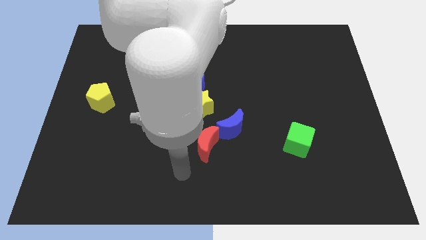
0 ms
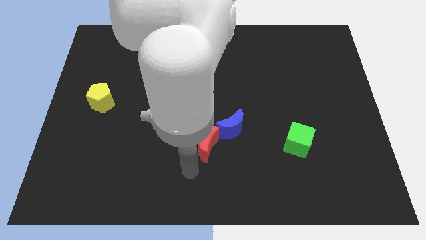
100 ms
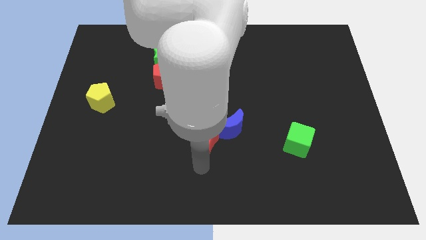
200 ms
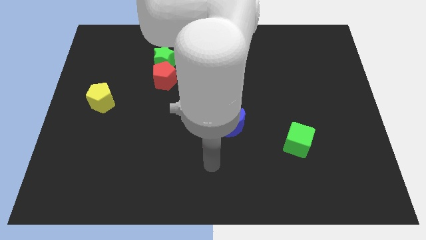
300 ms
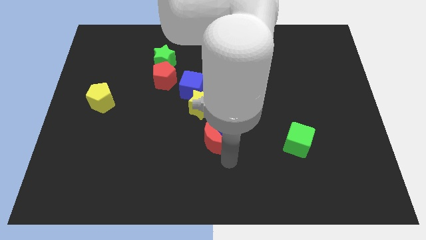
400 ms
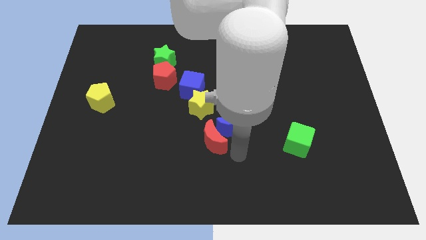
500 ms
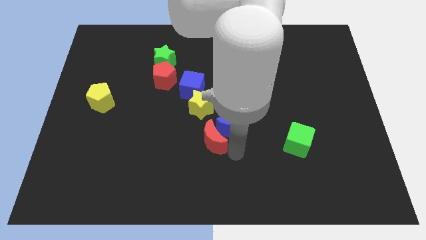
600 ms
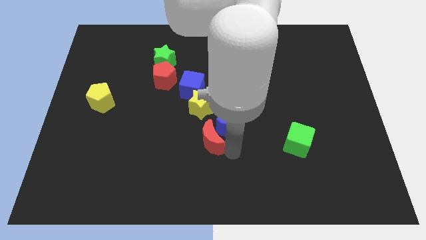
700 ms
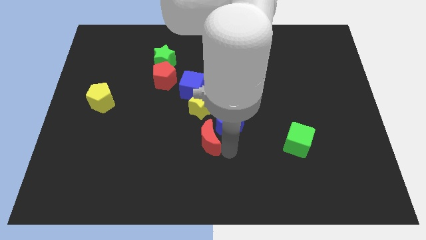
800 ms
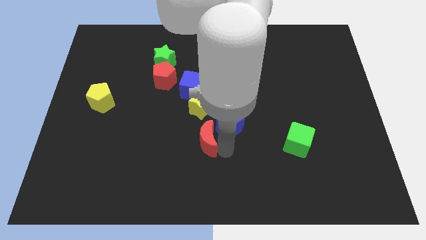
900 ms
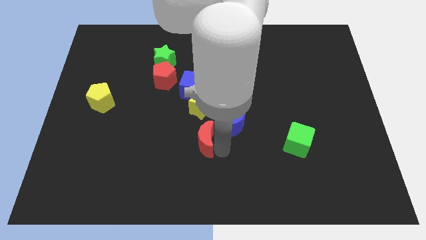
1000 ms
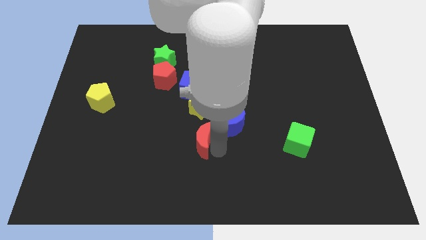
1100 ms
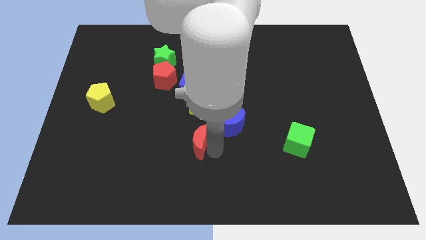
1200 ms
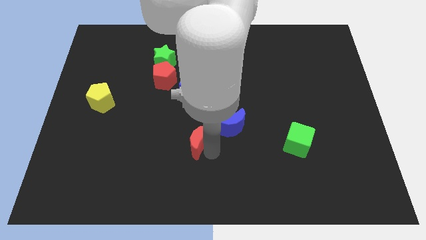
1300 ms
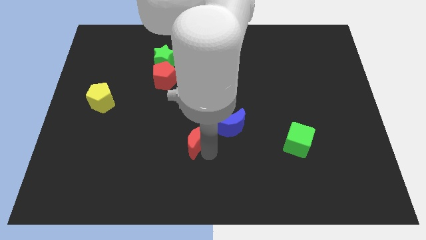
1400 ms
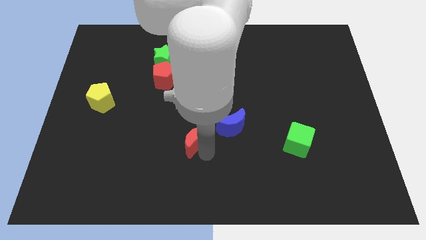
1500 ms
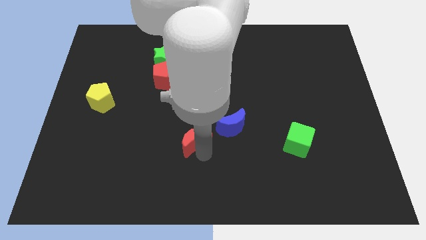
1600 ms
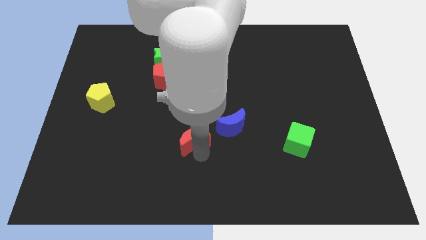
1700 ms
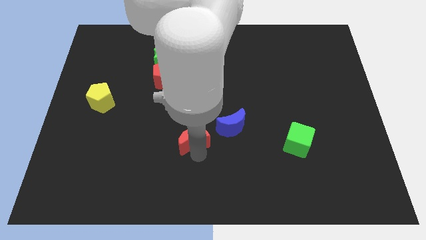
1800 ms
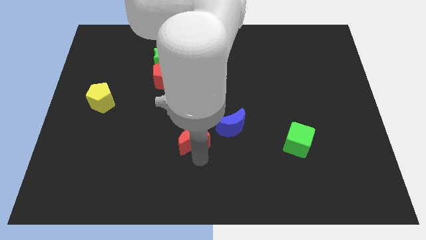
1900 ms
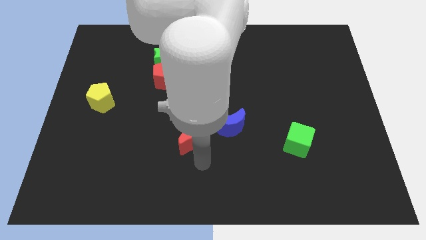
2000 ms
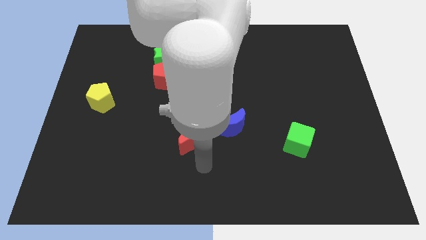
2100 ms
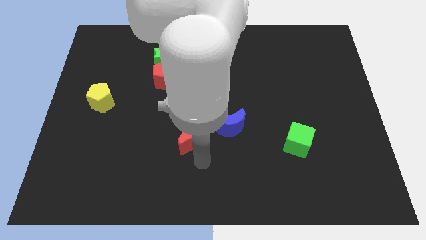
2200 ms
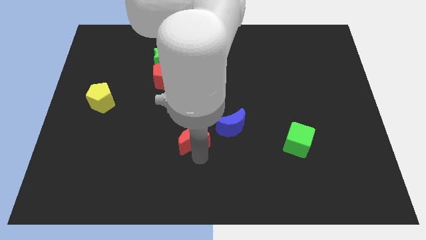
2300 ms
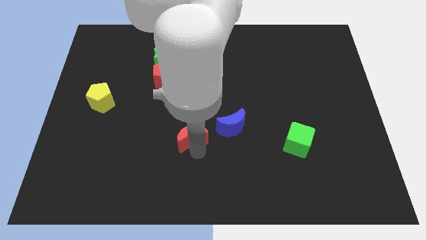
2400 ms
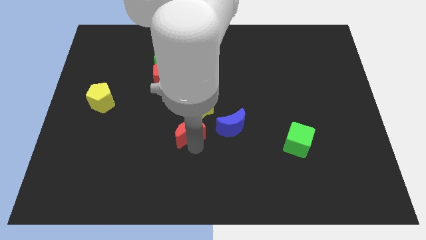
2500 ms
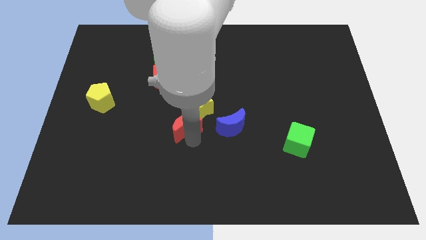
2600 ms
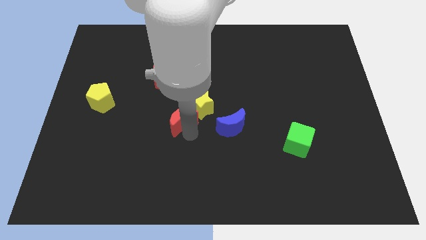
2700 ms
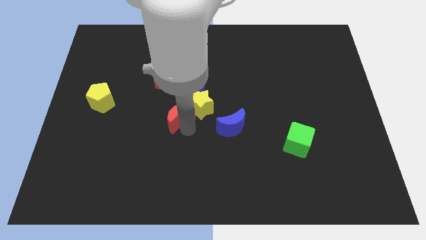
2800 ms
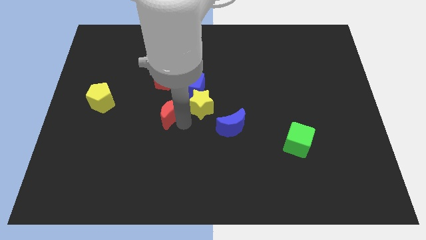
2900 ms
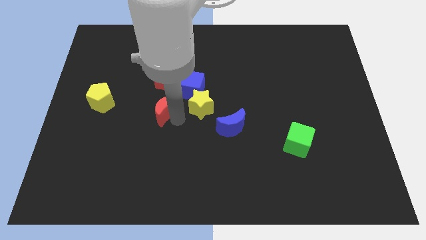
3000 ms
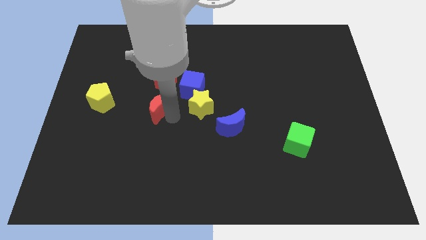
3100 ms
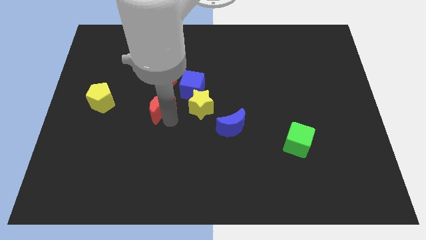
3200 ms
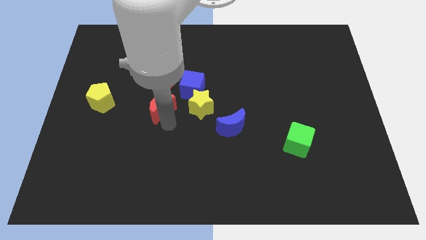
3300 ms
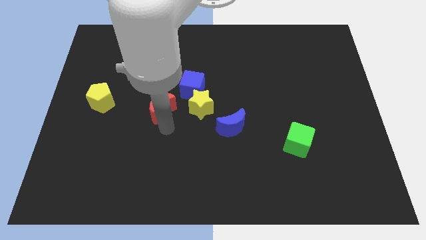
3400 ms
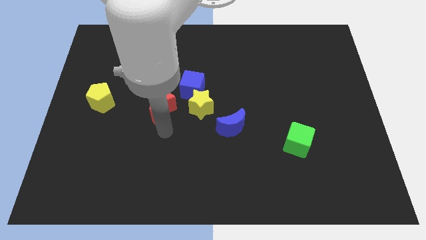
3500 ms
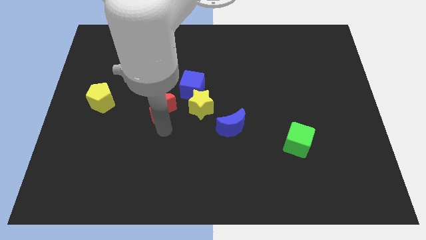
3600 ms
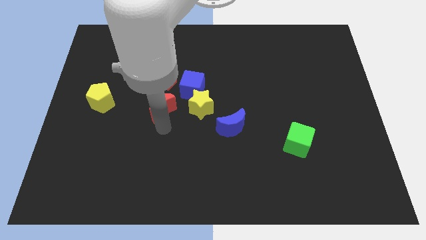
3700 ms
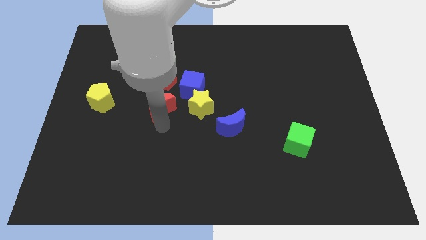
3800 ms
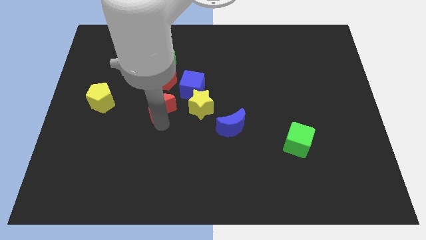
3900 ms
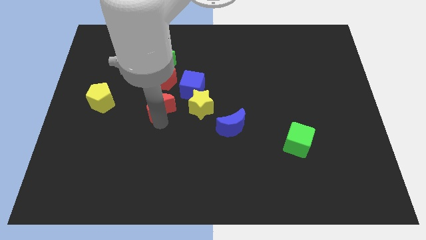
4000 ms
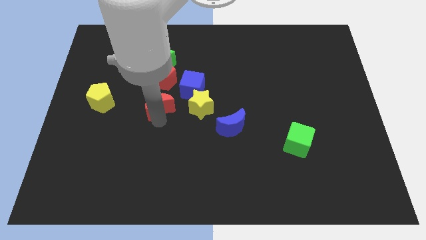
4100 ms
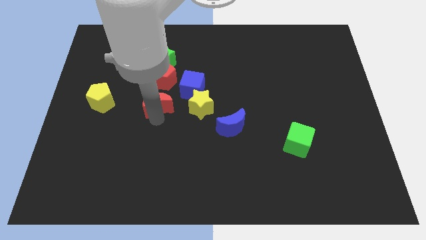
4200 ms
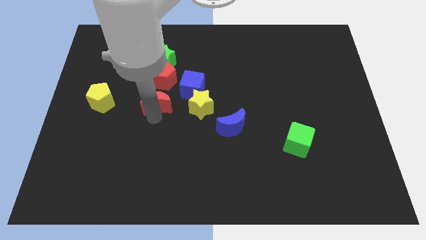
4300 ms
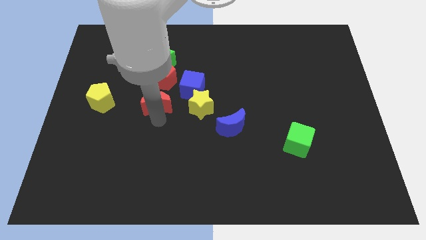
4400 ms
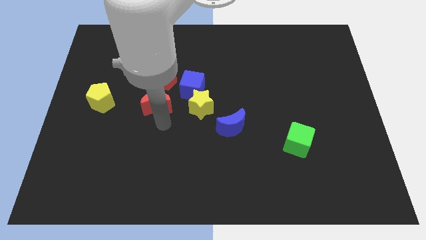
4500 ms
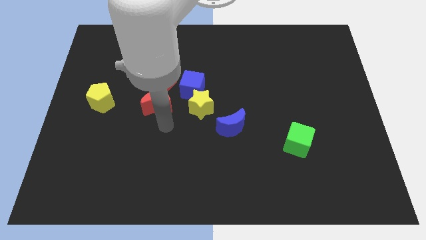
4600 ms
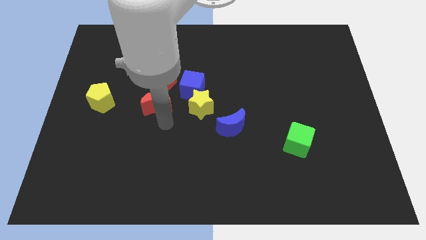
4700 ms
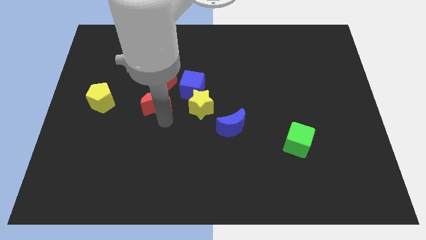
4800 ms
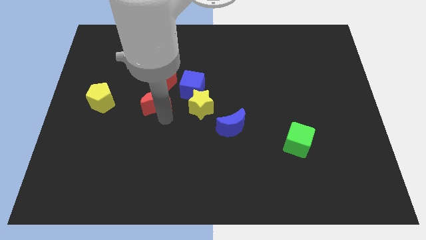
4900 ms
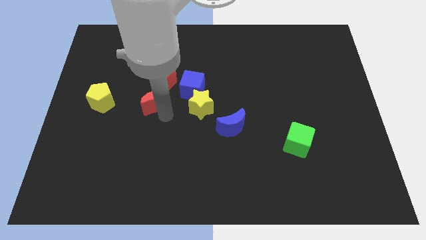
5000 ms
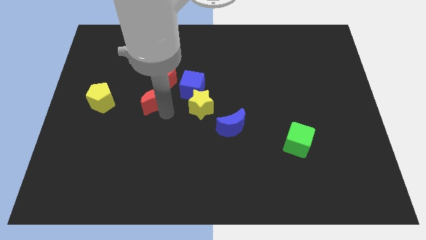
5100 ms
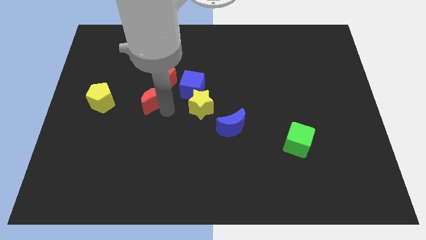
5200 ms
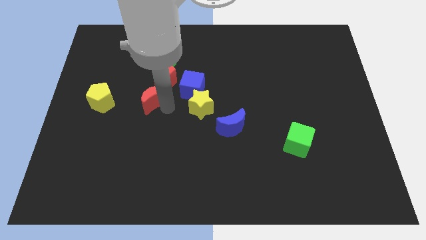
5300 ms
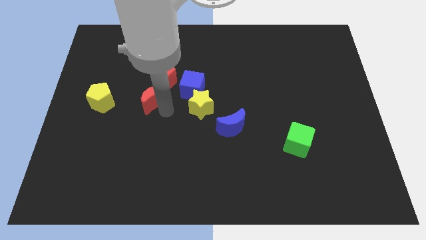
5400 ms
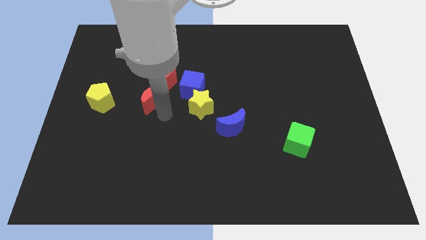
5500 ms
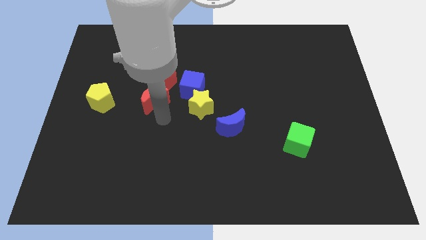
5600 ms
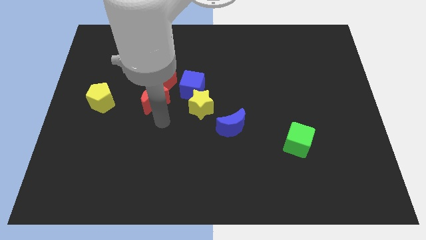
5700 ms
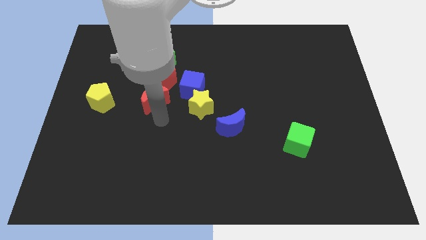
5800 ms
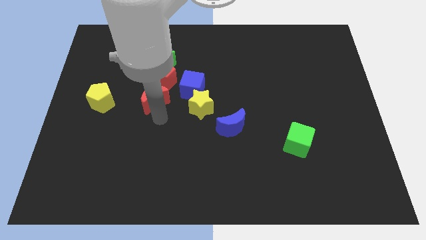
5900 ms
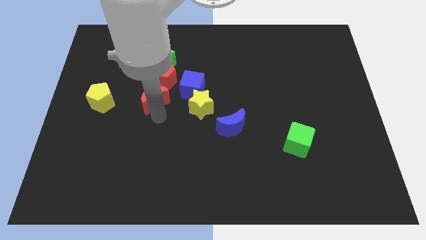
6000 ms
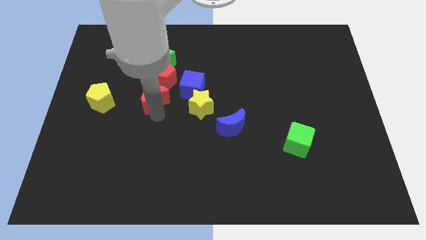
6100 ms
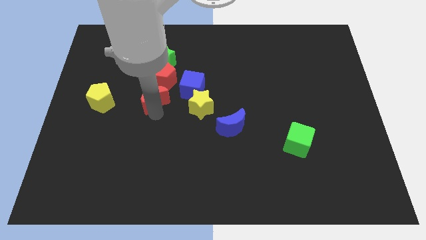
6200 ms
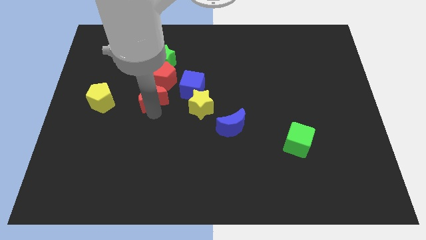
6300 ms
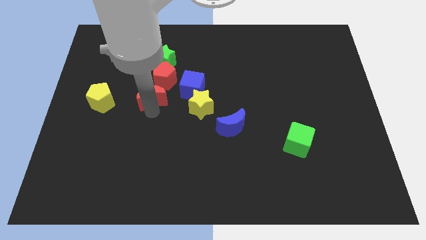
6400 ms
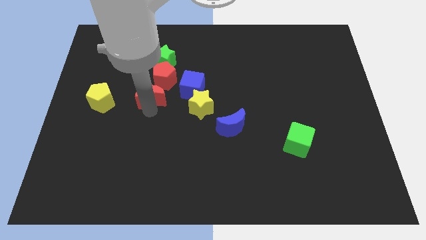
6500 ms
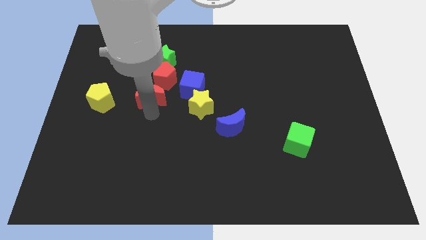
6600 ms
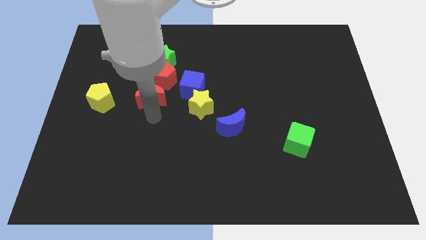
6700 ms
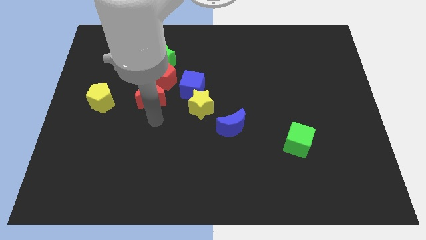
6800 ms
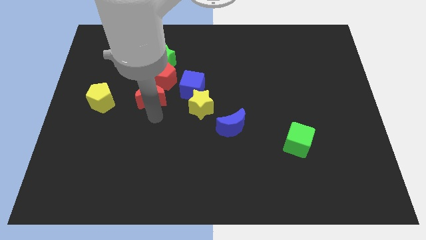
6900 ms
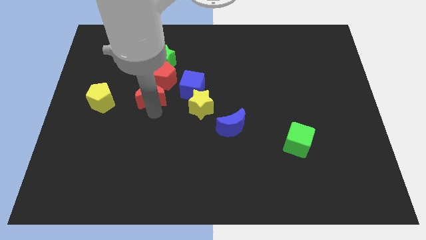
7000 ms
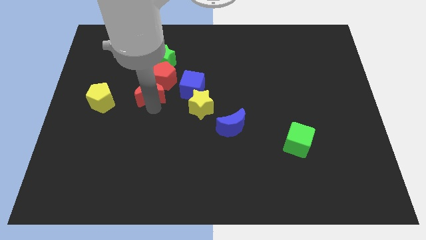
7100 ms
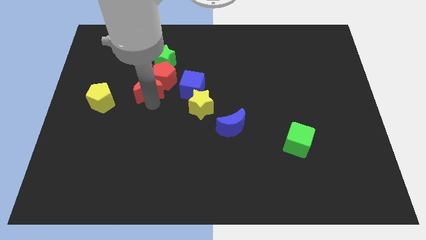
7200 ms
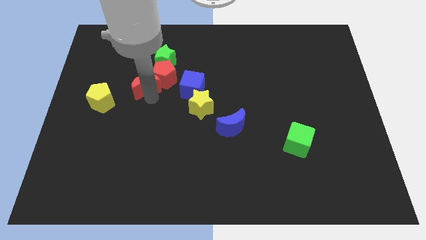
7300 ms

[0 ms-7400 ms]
put the red moon diagonally down and to the left of the green star
